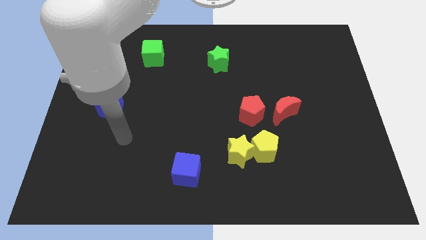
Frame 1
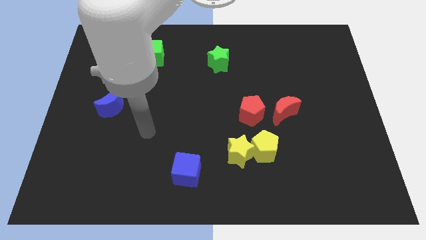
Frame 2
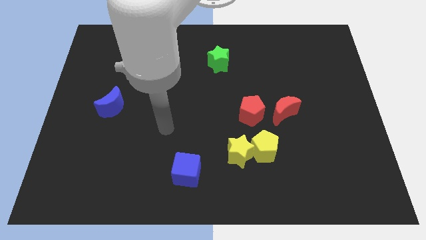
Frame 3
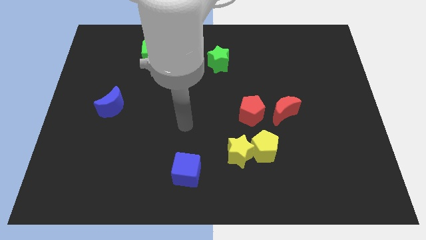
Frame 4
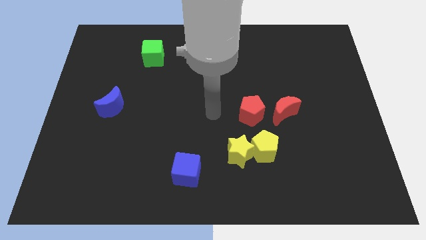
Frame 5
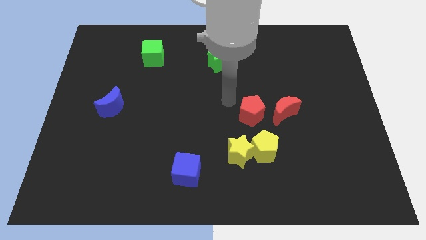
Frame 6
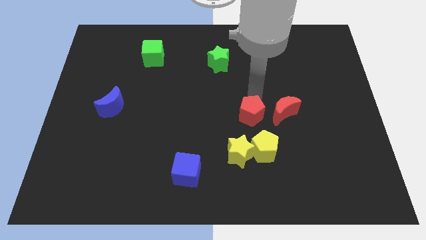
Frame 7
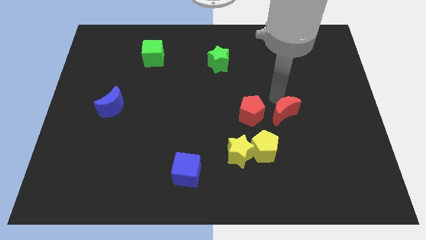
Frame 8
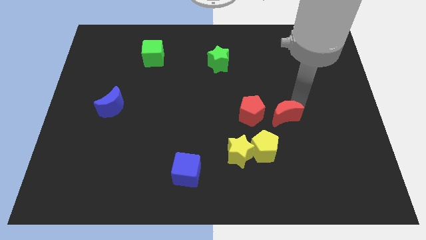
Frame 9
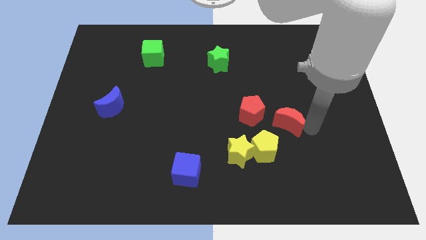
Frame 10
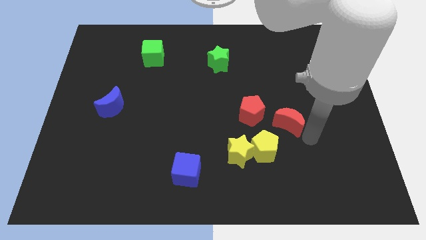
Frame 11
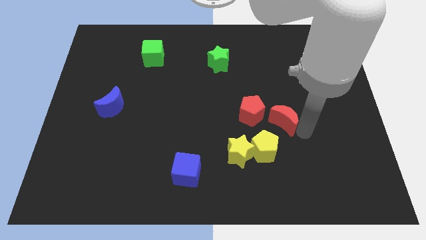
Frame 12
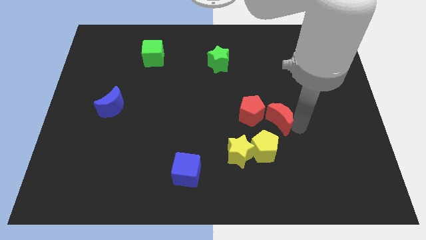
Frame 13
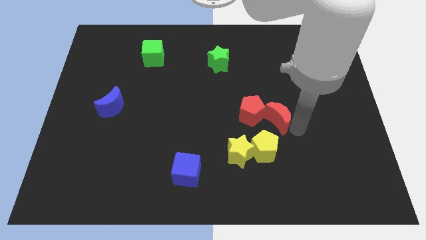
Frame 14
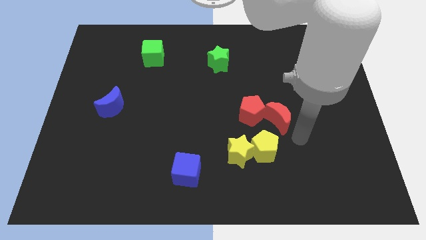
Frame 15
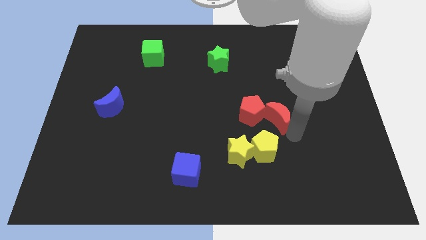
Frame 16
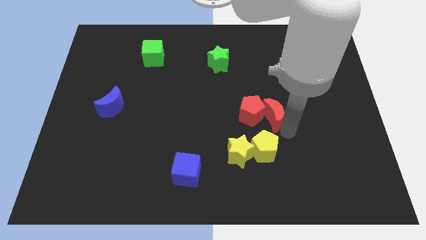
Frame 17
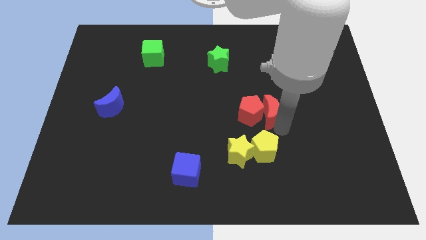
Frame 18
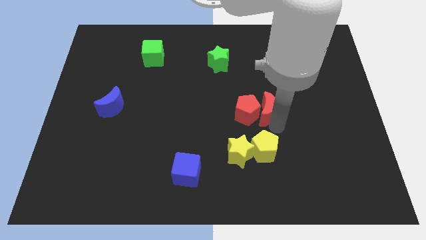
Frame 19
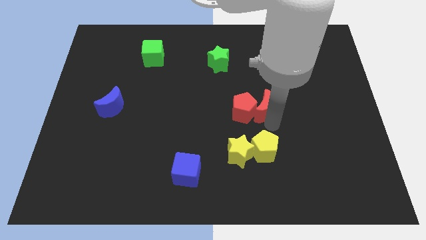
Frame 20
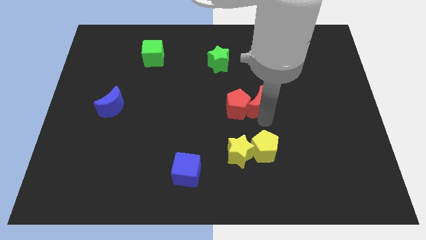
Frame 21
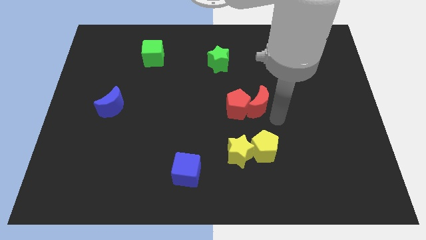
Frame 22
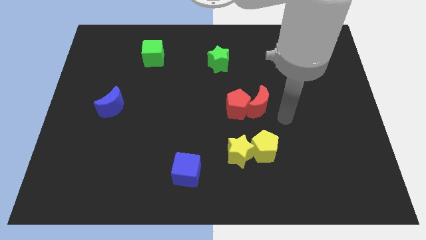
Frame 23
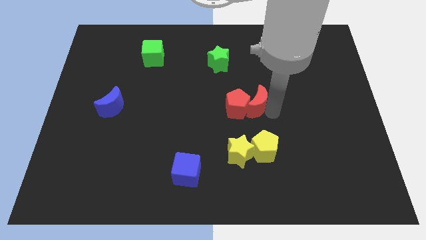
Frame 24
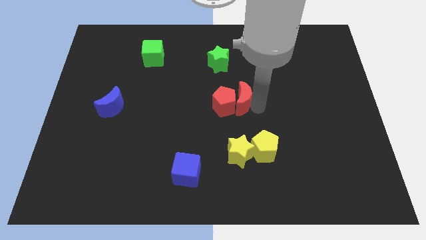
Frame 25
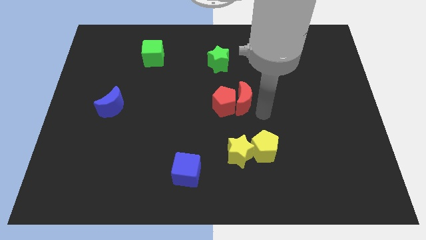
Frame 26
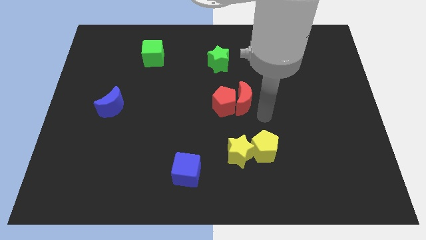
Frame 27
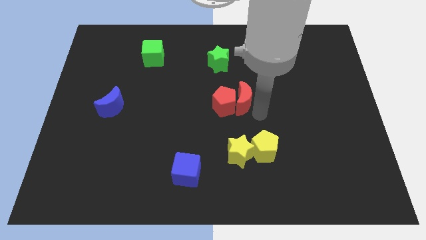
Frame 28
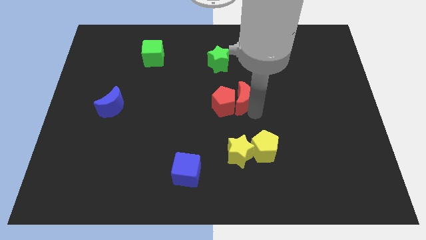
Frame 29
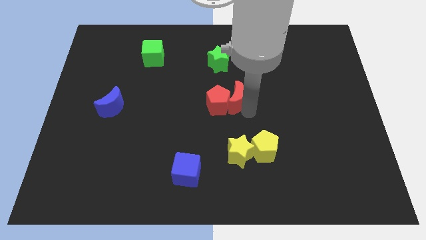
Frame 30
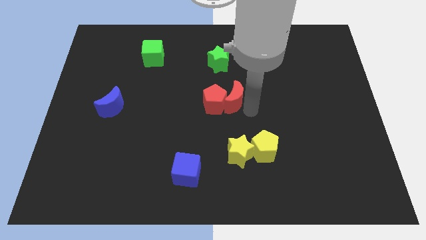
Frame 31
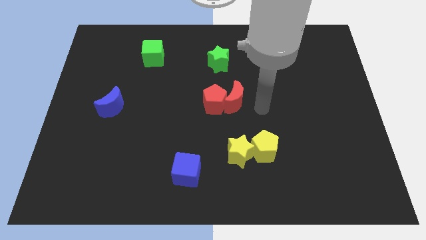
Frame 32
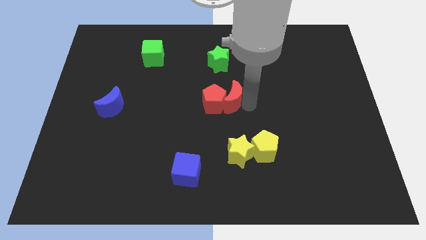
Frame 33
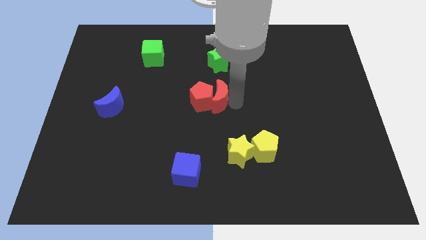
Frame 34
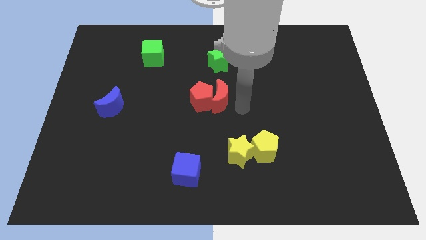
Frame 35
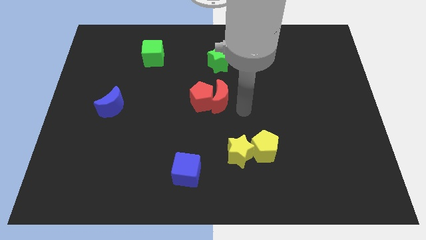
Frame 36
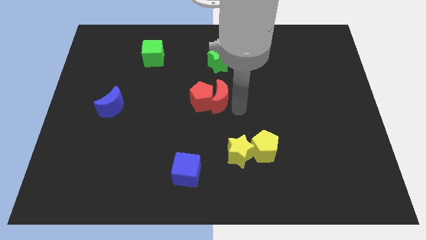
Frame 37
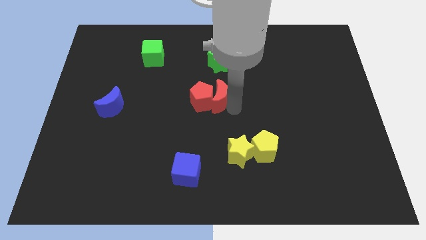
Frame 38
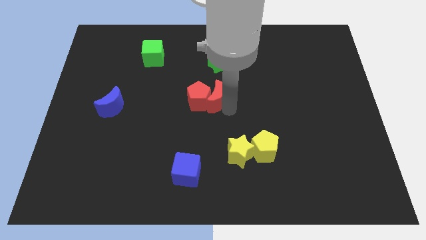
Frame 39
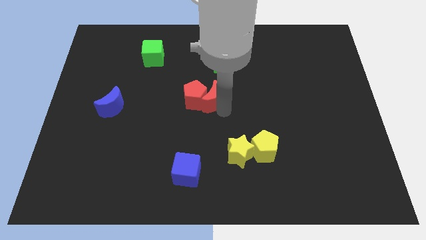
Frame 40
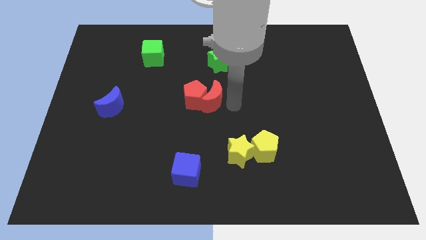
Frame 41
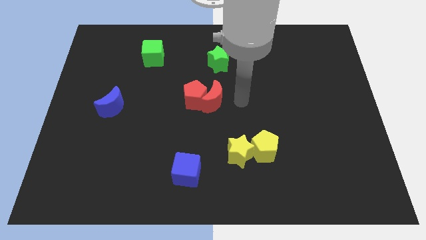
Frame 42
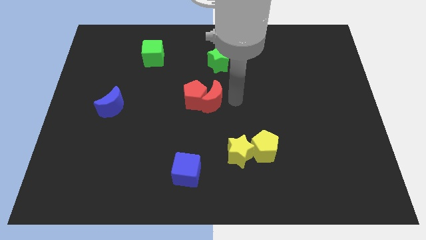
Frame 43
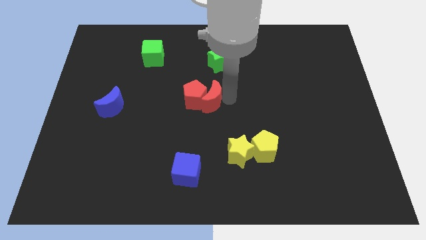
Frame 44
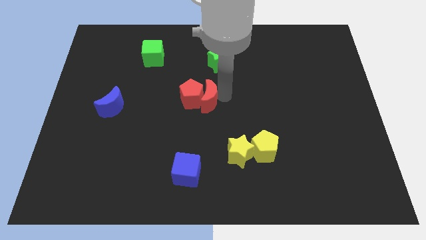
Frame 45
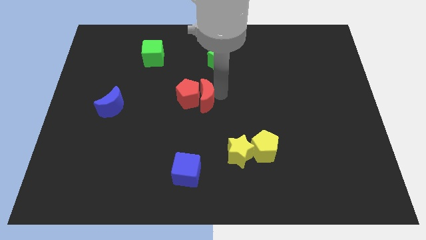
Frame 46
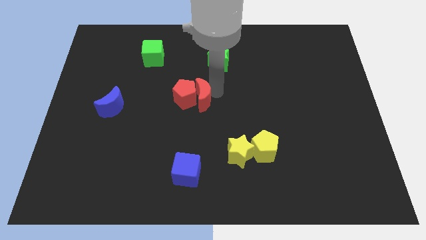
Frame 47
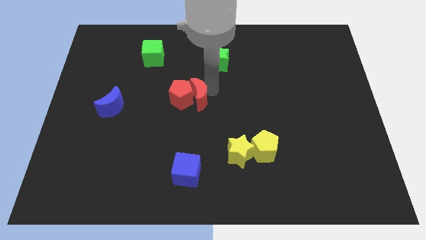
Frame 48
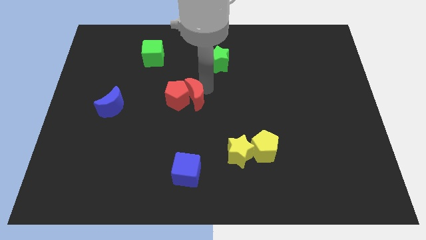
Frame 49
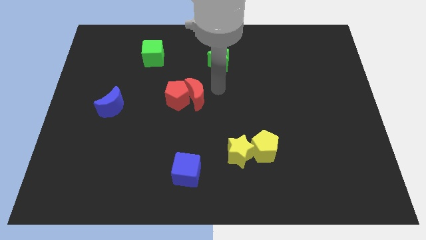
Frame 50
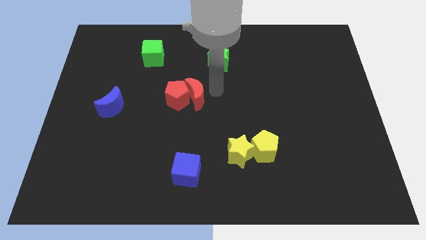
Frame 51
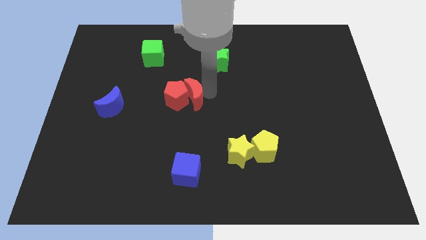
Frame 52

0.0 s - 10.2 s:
push the red moon left

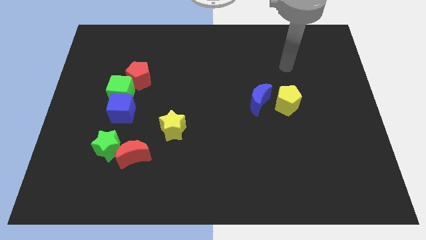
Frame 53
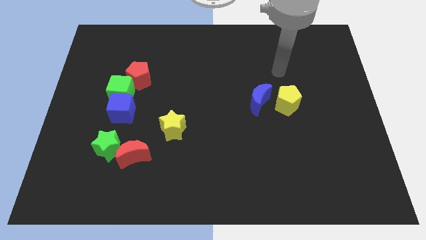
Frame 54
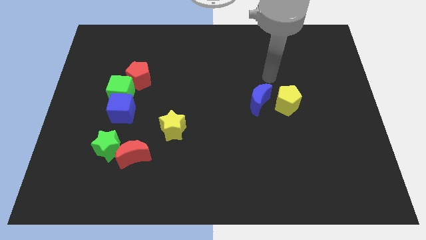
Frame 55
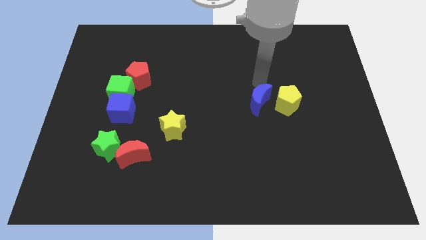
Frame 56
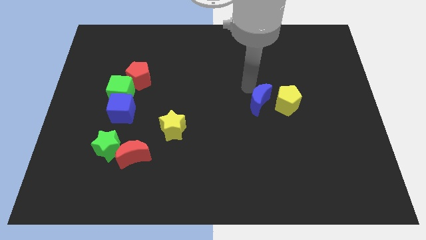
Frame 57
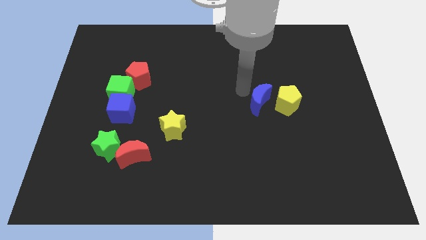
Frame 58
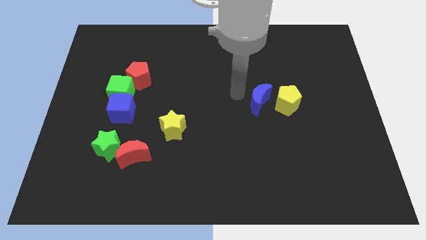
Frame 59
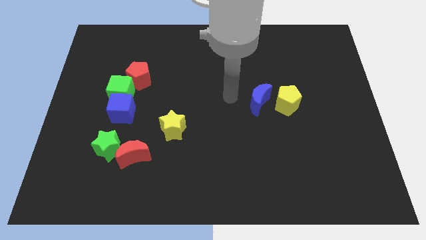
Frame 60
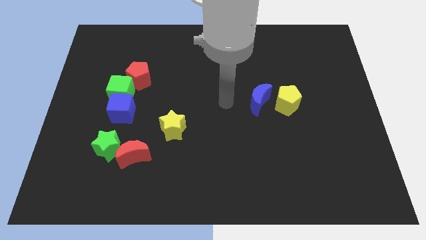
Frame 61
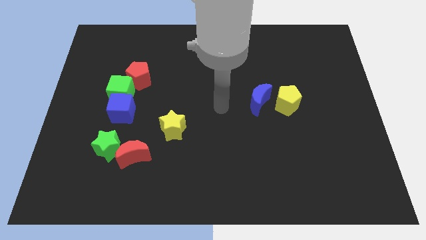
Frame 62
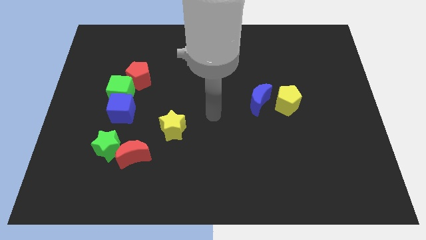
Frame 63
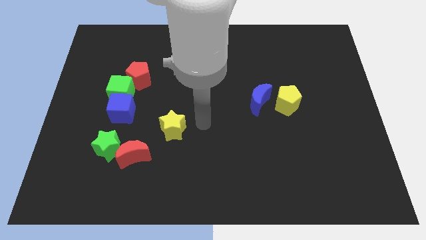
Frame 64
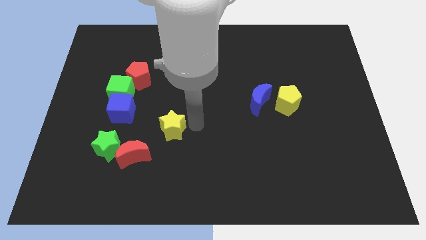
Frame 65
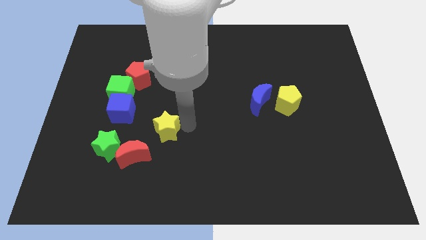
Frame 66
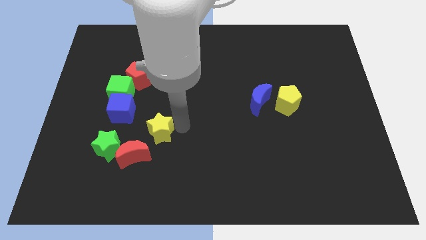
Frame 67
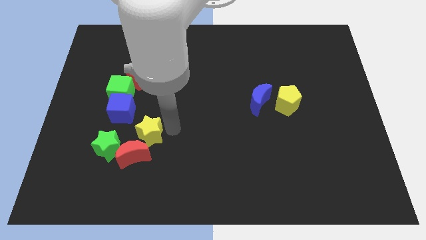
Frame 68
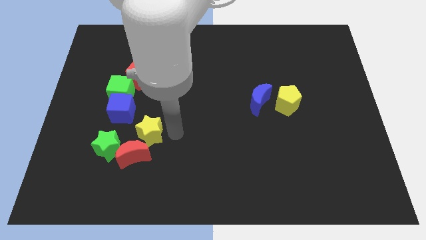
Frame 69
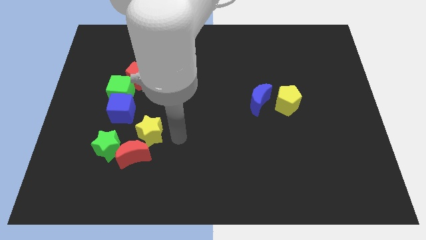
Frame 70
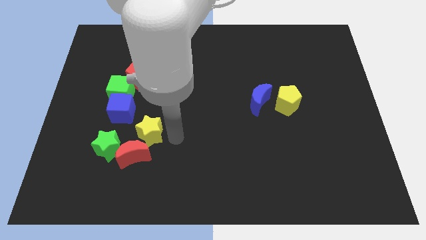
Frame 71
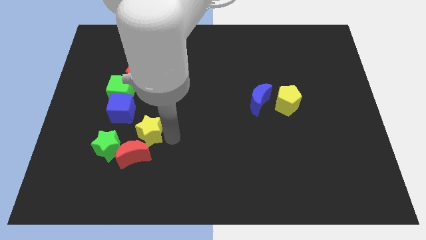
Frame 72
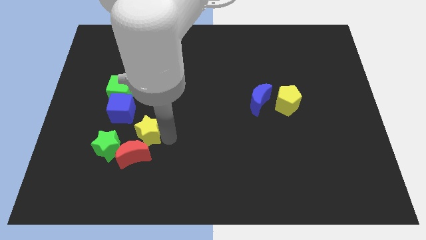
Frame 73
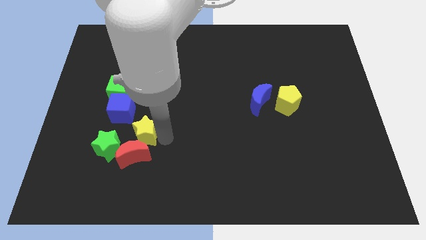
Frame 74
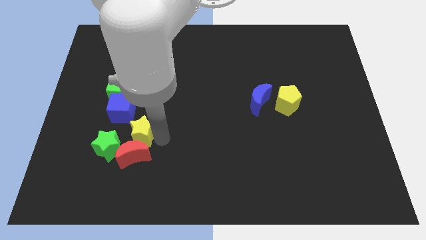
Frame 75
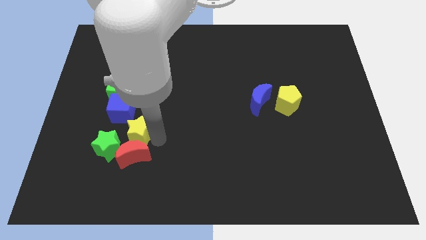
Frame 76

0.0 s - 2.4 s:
push the yellow star to the left a little bit

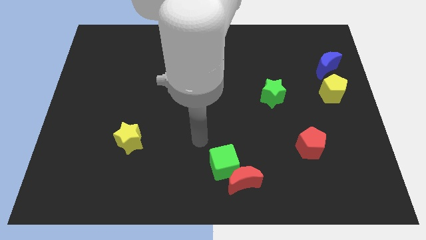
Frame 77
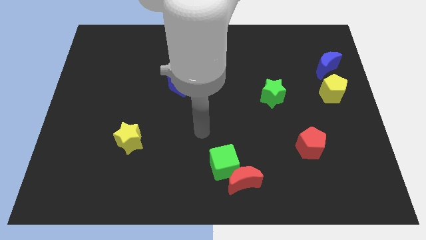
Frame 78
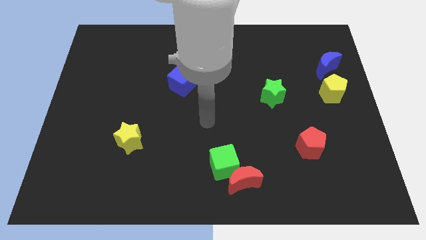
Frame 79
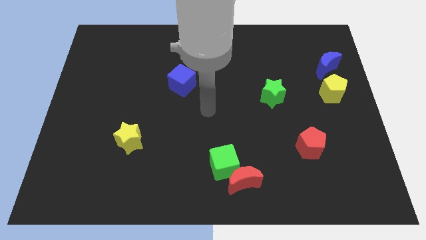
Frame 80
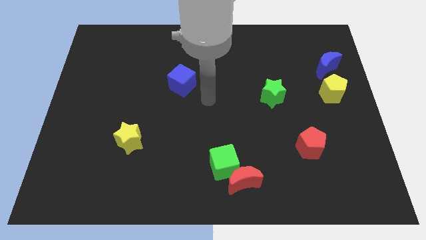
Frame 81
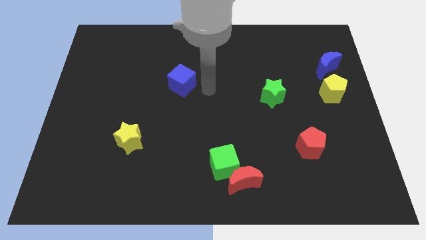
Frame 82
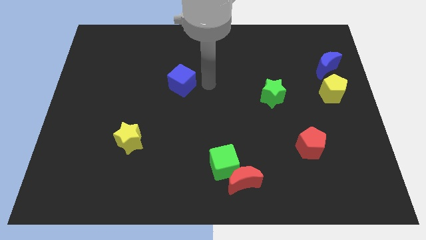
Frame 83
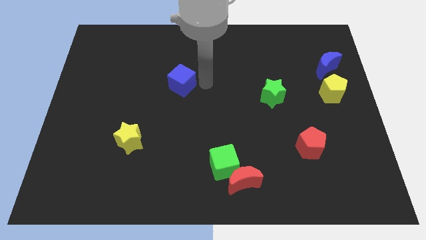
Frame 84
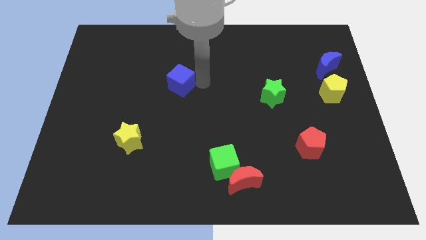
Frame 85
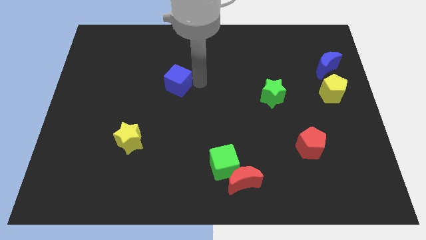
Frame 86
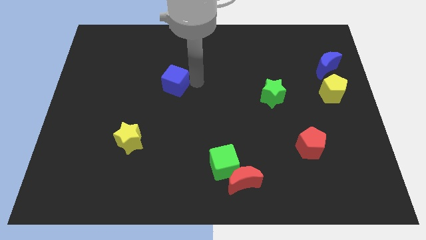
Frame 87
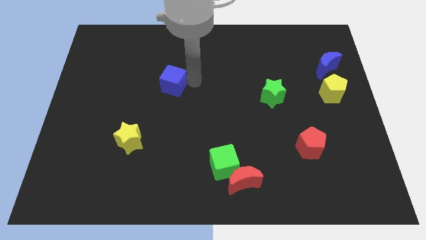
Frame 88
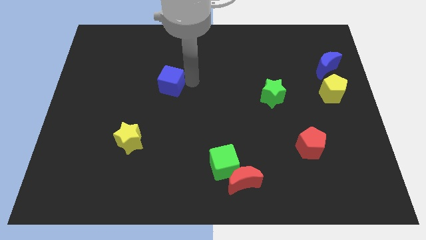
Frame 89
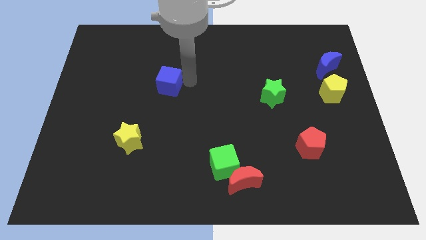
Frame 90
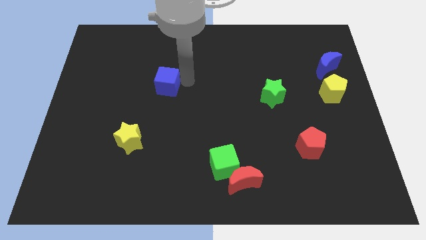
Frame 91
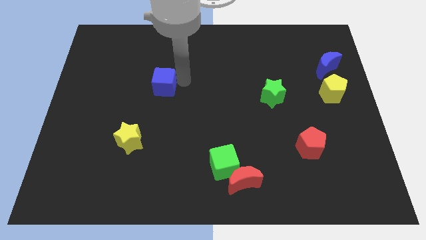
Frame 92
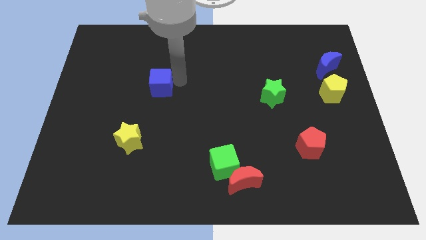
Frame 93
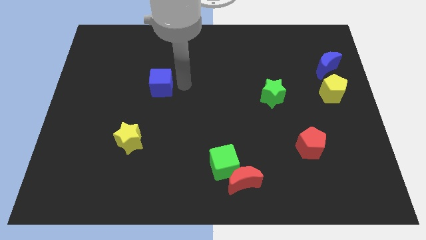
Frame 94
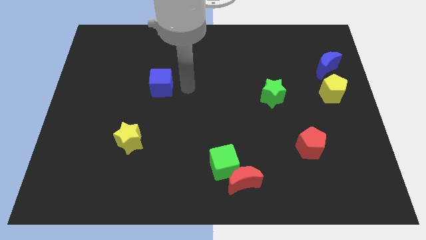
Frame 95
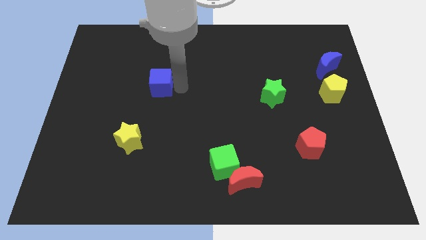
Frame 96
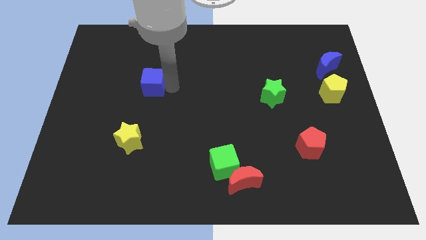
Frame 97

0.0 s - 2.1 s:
slightly push the blue cube to the left
